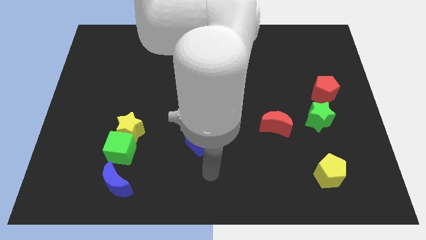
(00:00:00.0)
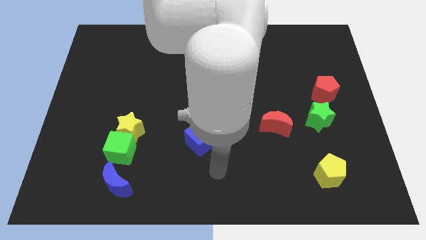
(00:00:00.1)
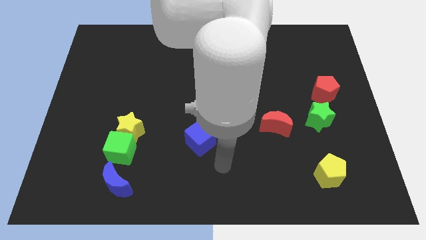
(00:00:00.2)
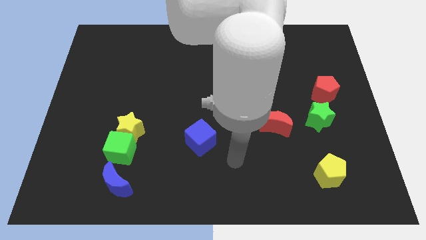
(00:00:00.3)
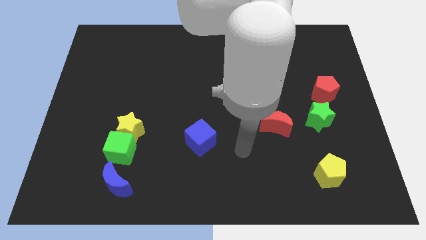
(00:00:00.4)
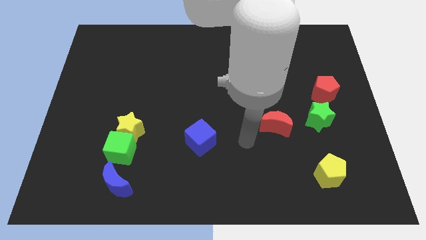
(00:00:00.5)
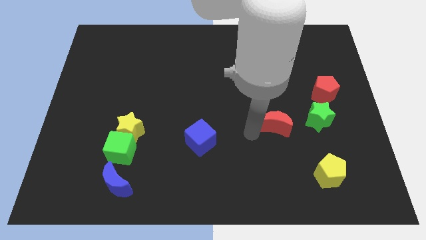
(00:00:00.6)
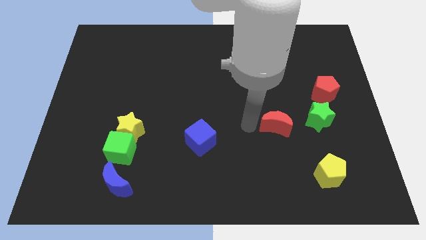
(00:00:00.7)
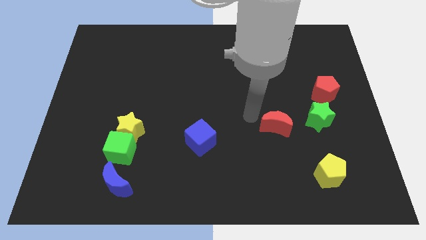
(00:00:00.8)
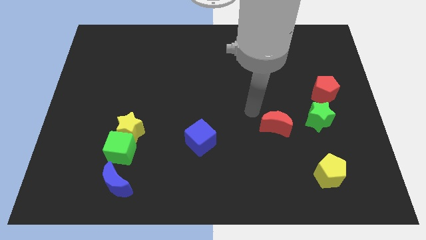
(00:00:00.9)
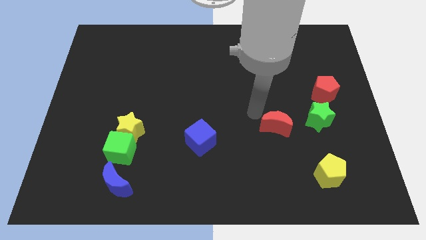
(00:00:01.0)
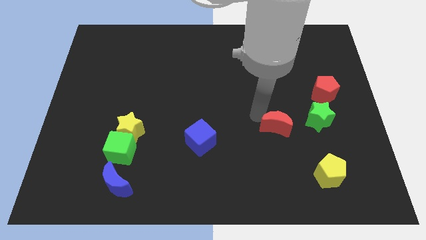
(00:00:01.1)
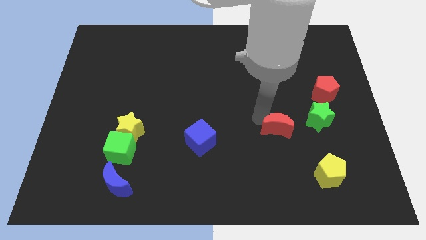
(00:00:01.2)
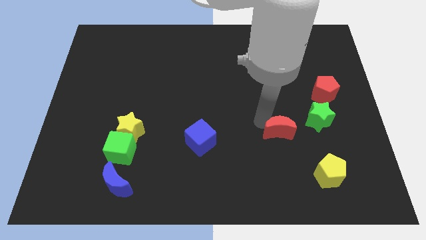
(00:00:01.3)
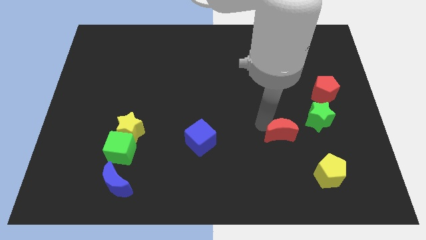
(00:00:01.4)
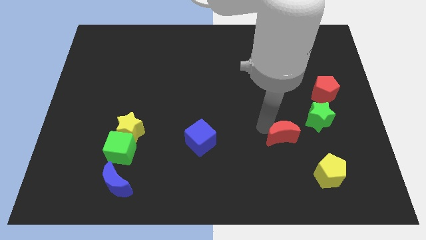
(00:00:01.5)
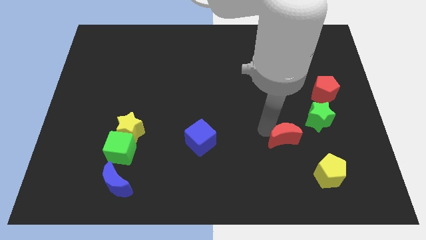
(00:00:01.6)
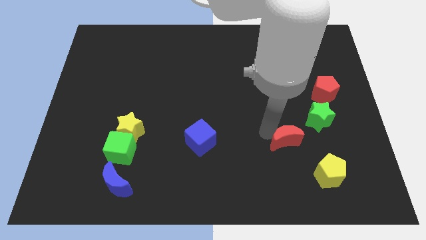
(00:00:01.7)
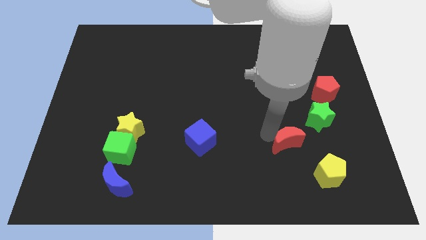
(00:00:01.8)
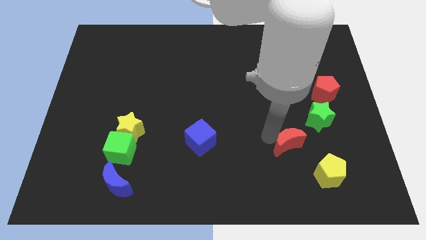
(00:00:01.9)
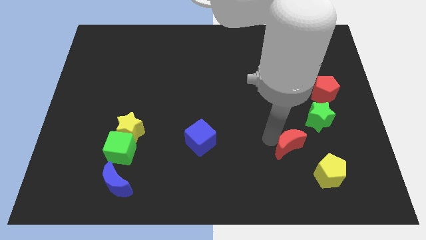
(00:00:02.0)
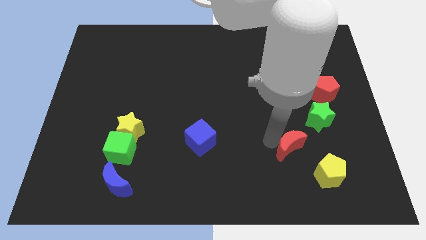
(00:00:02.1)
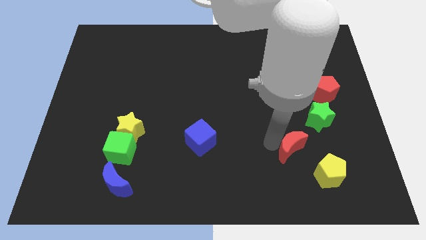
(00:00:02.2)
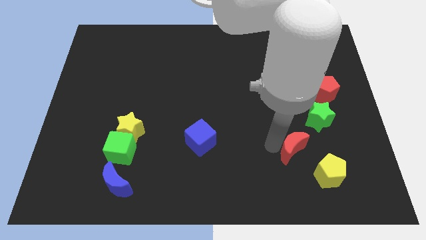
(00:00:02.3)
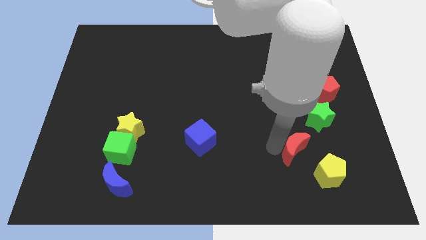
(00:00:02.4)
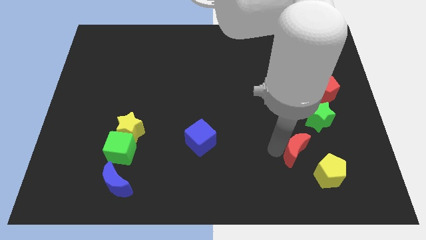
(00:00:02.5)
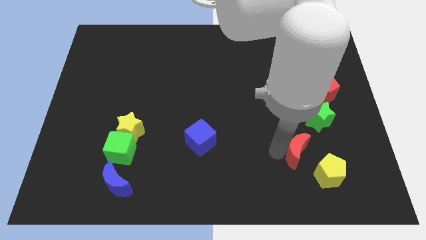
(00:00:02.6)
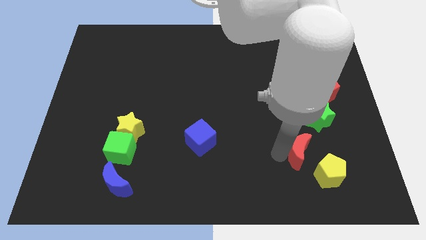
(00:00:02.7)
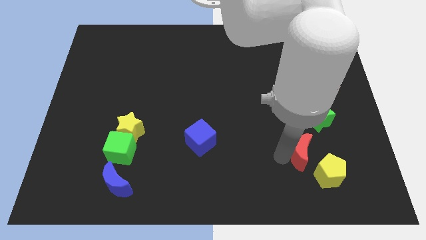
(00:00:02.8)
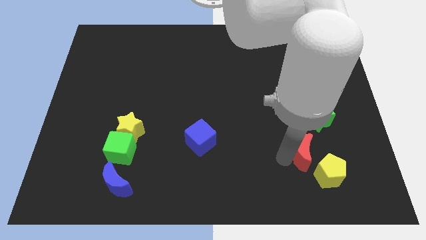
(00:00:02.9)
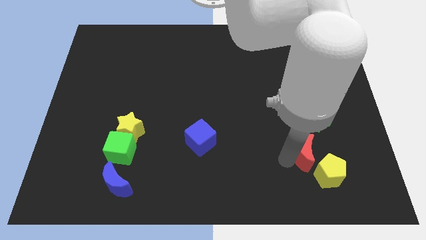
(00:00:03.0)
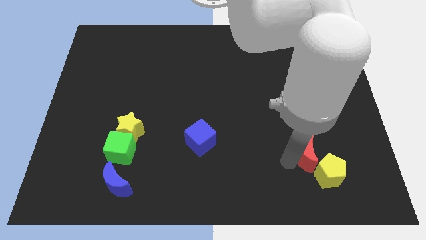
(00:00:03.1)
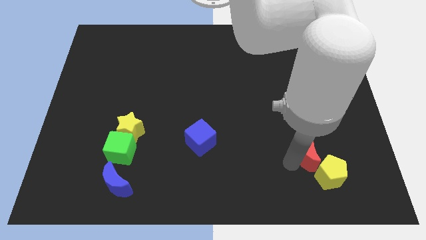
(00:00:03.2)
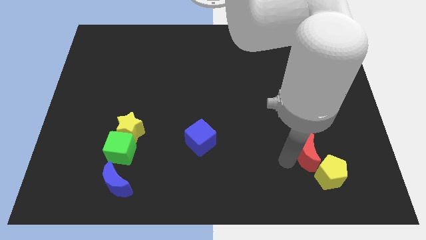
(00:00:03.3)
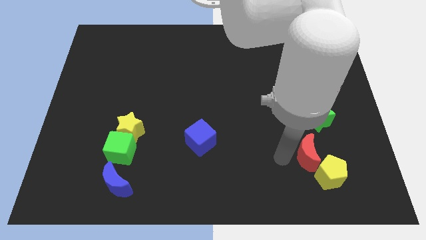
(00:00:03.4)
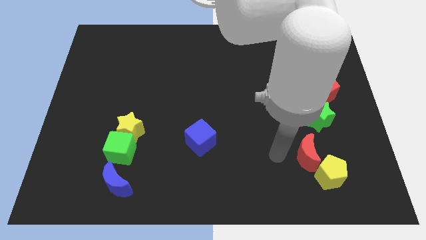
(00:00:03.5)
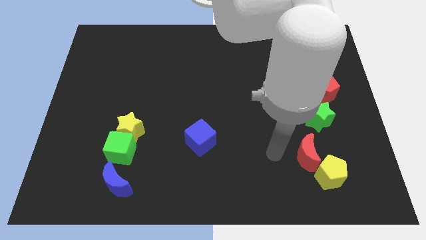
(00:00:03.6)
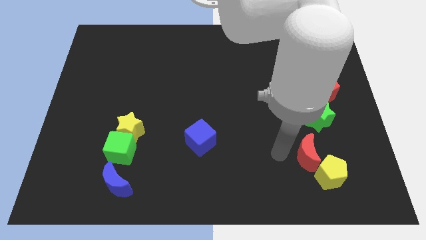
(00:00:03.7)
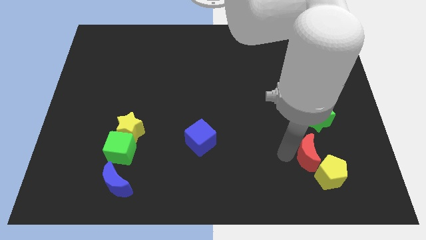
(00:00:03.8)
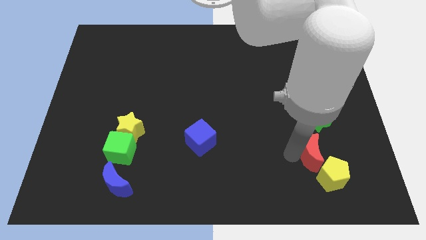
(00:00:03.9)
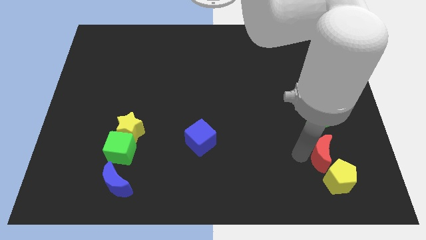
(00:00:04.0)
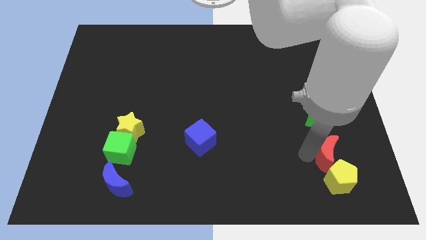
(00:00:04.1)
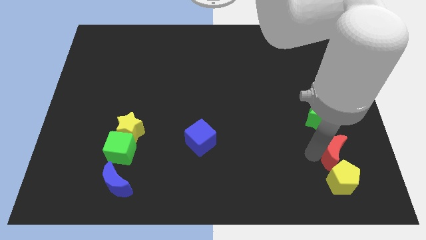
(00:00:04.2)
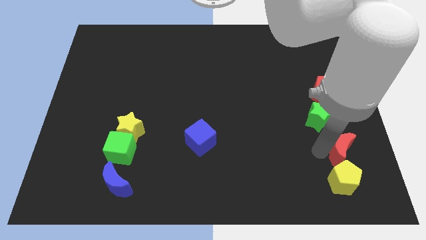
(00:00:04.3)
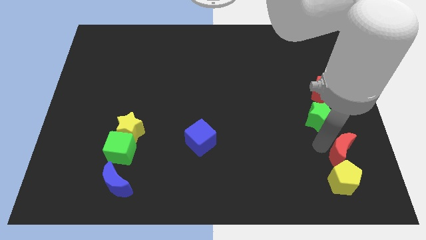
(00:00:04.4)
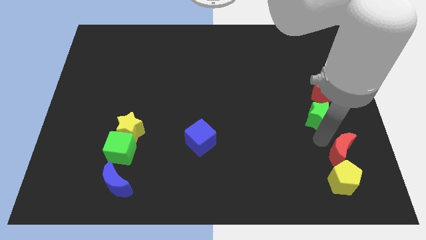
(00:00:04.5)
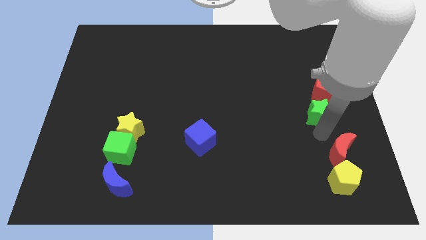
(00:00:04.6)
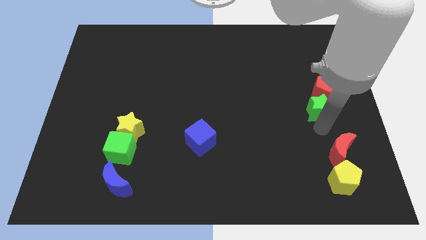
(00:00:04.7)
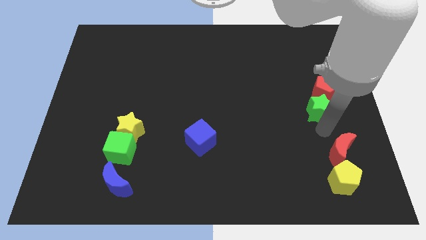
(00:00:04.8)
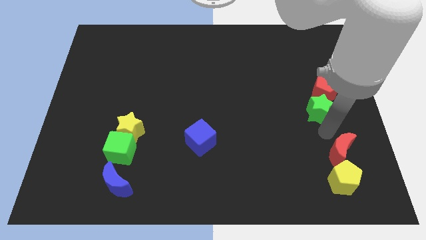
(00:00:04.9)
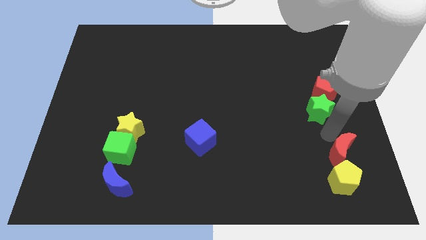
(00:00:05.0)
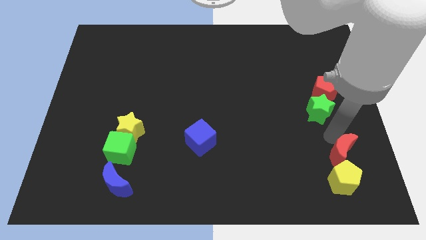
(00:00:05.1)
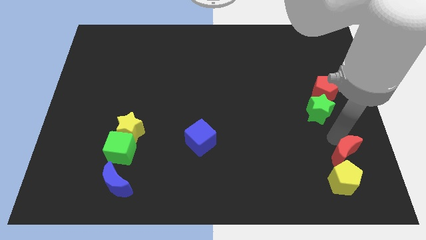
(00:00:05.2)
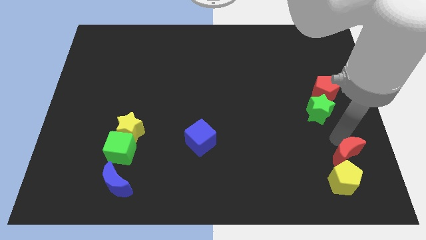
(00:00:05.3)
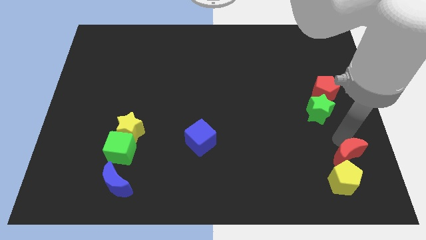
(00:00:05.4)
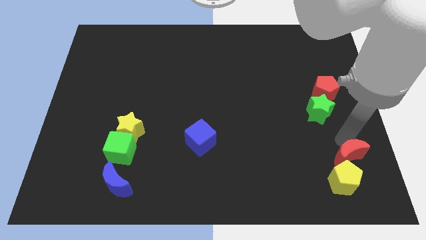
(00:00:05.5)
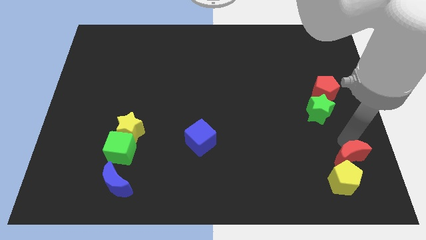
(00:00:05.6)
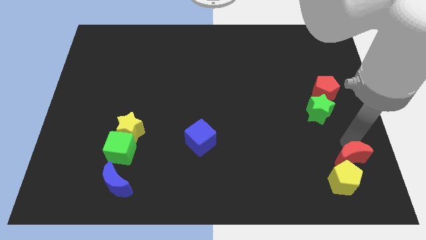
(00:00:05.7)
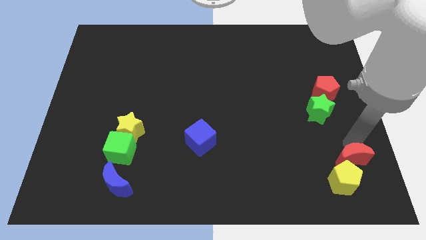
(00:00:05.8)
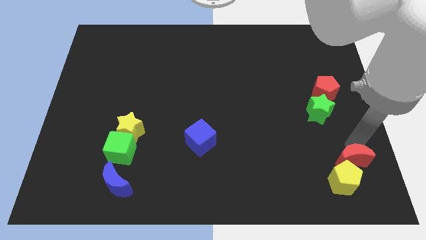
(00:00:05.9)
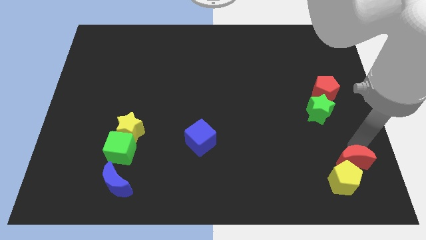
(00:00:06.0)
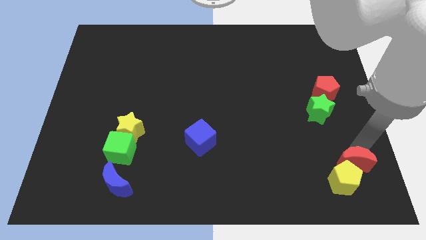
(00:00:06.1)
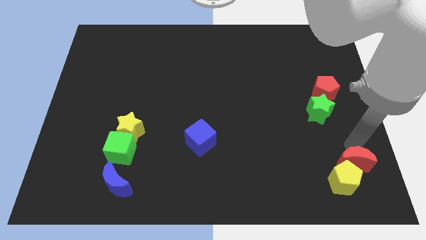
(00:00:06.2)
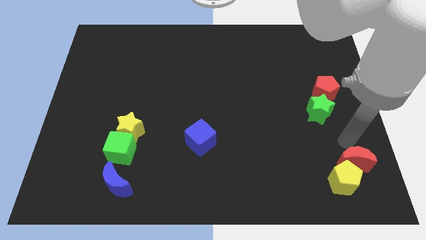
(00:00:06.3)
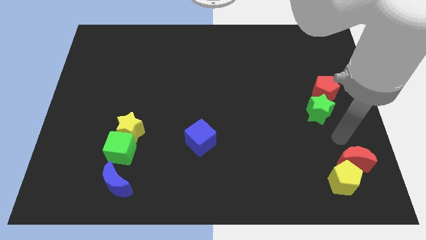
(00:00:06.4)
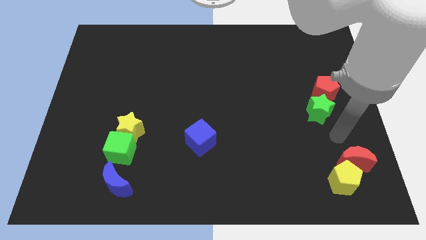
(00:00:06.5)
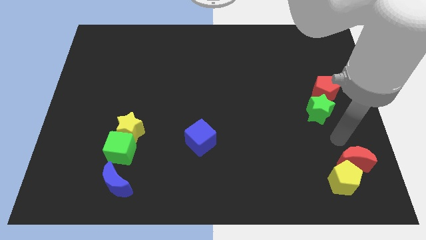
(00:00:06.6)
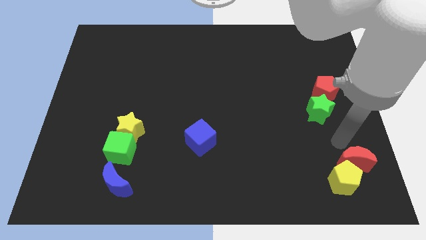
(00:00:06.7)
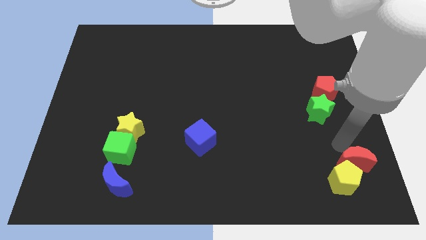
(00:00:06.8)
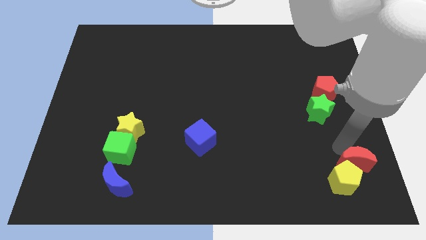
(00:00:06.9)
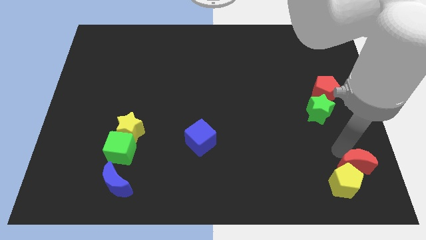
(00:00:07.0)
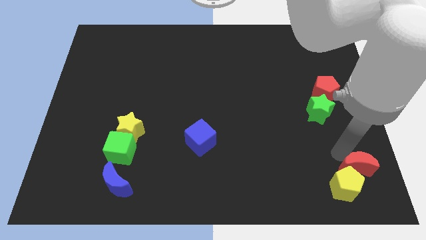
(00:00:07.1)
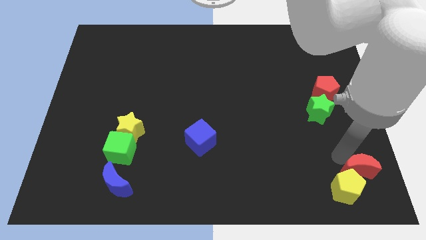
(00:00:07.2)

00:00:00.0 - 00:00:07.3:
put the red moon to the bottom right of the board
